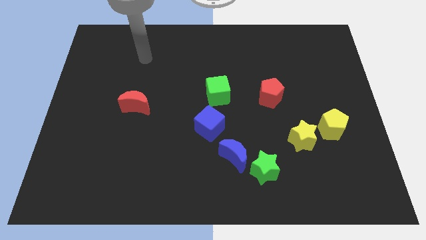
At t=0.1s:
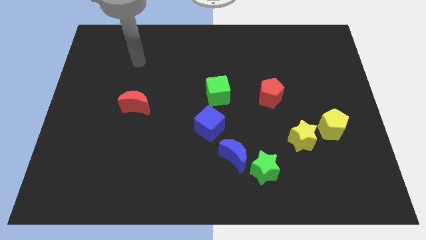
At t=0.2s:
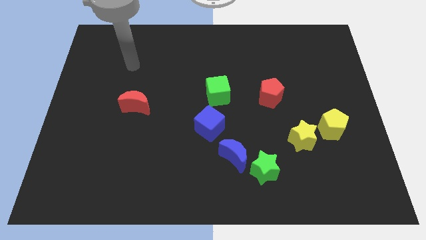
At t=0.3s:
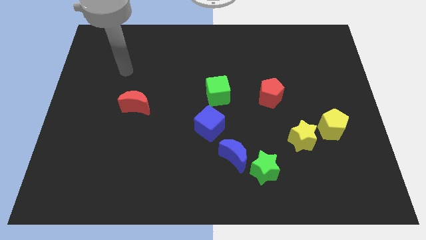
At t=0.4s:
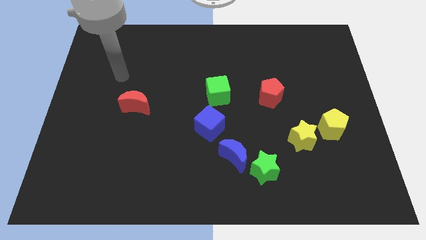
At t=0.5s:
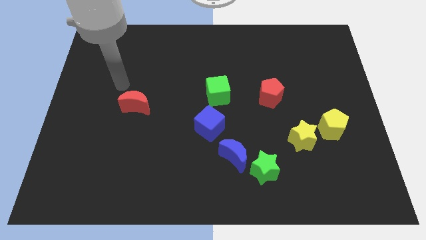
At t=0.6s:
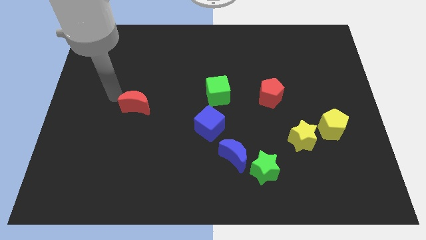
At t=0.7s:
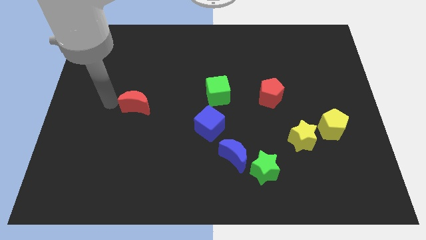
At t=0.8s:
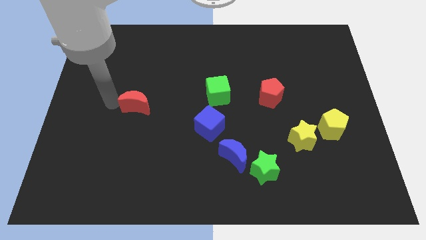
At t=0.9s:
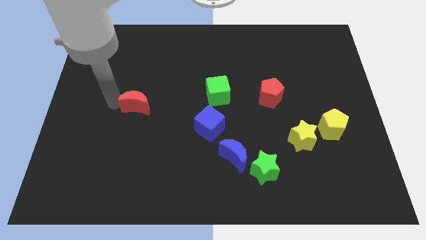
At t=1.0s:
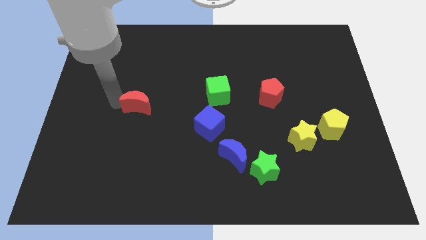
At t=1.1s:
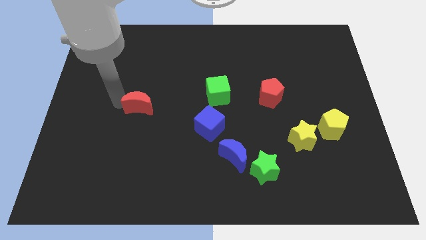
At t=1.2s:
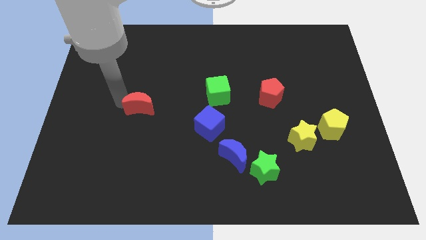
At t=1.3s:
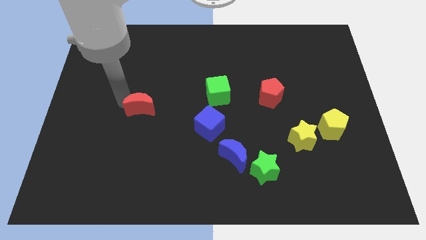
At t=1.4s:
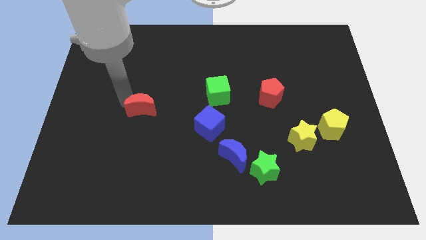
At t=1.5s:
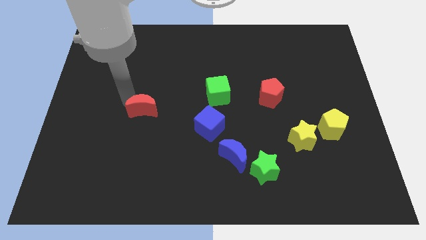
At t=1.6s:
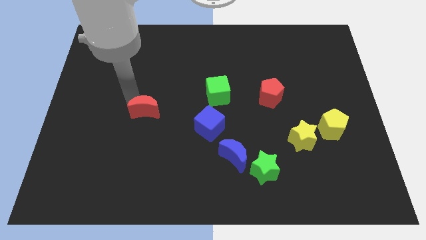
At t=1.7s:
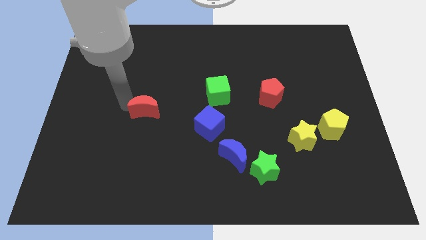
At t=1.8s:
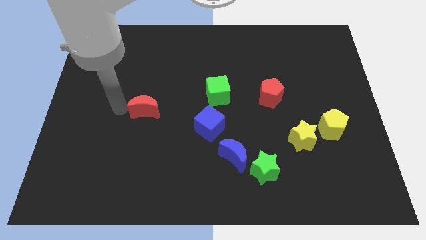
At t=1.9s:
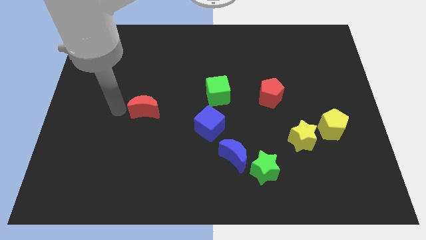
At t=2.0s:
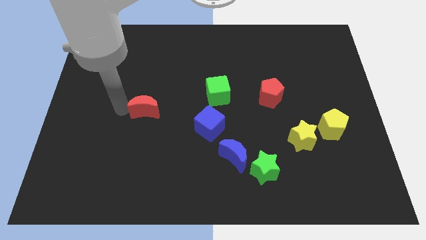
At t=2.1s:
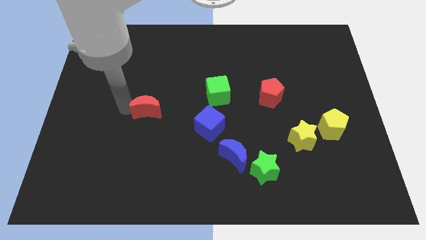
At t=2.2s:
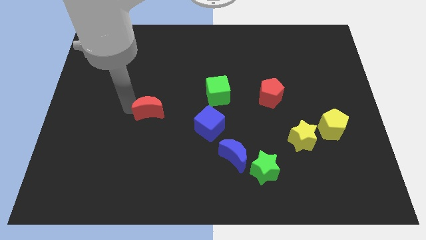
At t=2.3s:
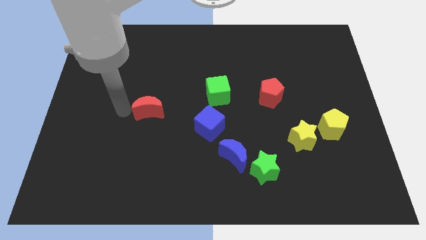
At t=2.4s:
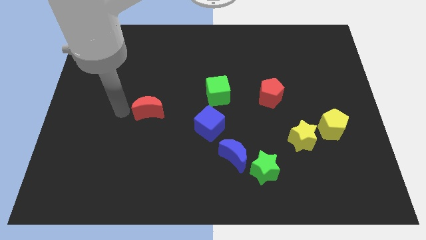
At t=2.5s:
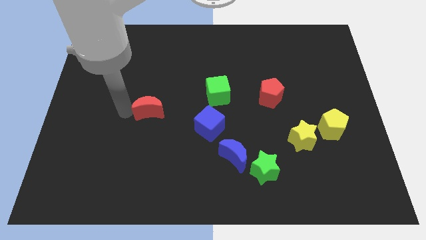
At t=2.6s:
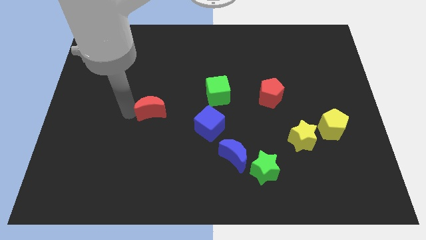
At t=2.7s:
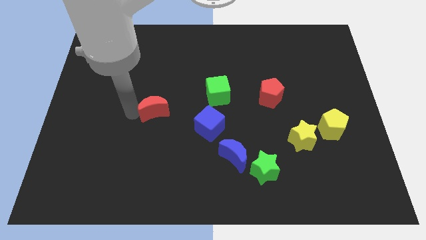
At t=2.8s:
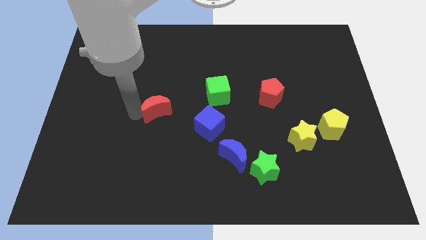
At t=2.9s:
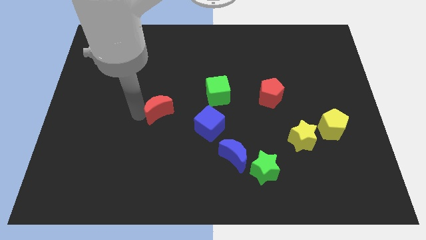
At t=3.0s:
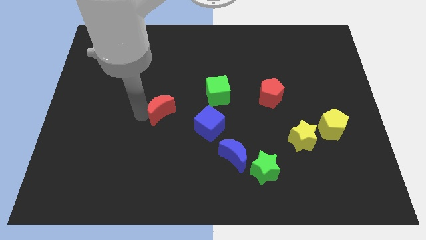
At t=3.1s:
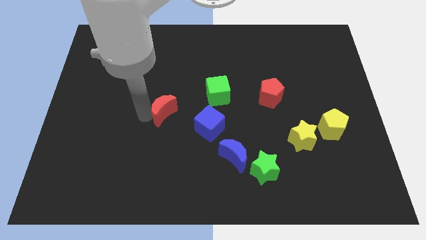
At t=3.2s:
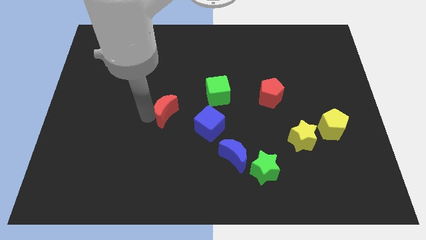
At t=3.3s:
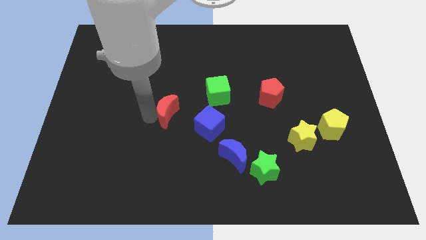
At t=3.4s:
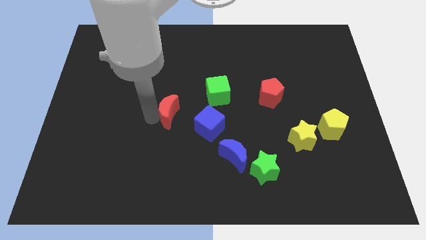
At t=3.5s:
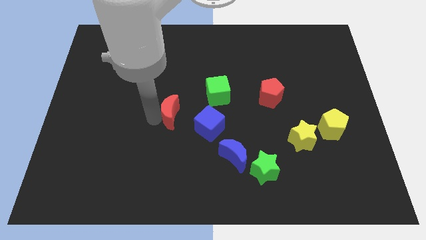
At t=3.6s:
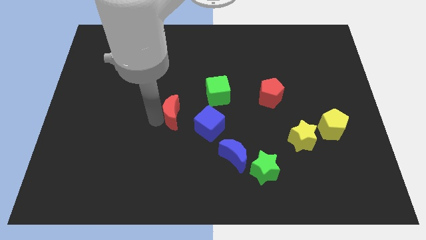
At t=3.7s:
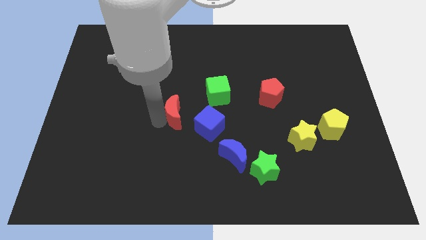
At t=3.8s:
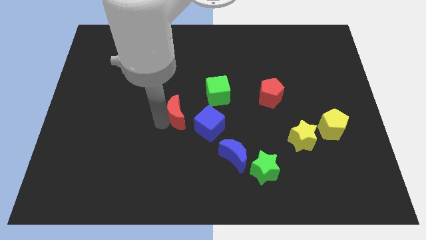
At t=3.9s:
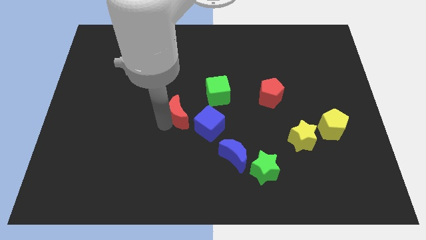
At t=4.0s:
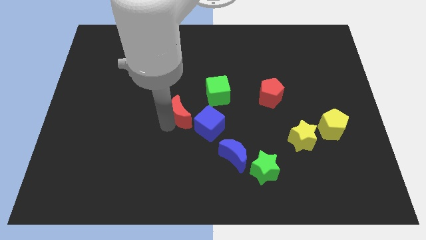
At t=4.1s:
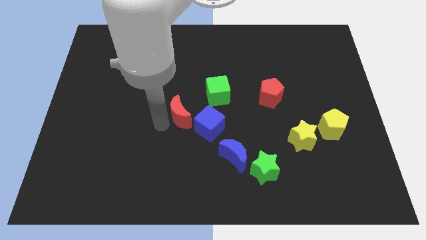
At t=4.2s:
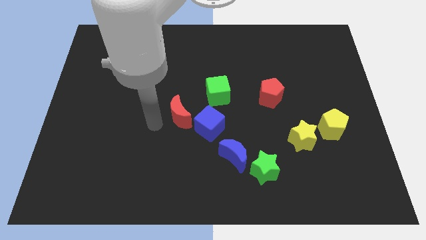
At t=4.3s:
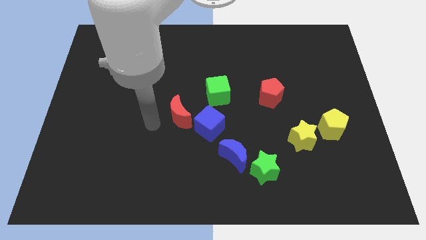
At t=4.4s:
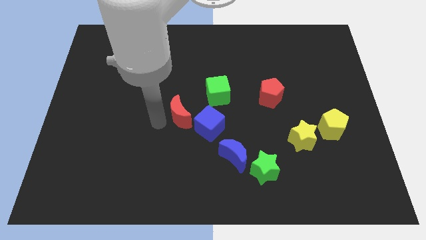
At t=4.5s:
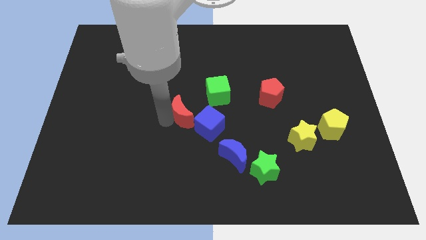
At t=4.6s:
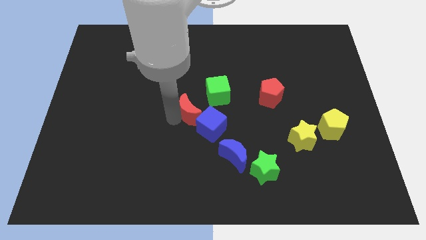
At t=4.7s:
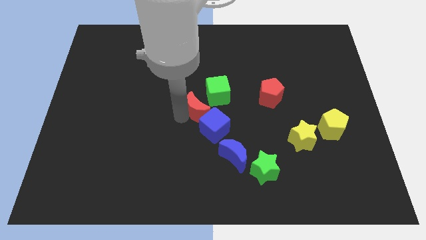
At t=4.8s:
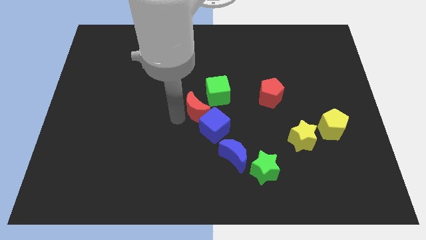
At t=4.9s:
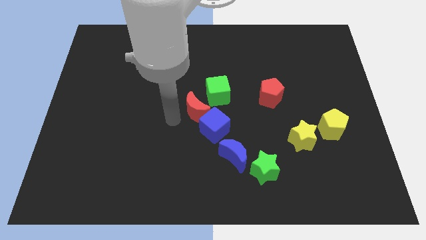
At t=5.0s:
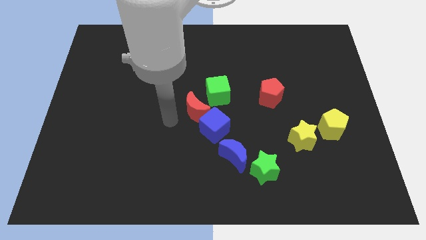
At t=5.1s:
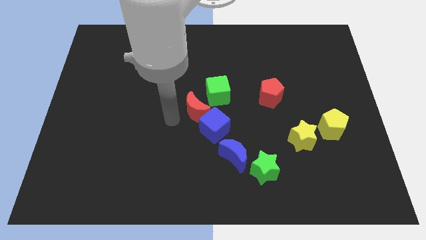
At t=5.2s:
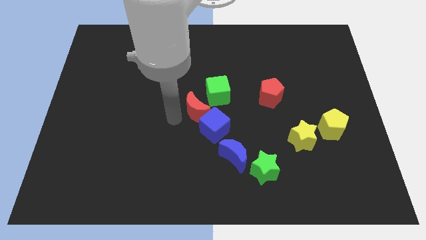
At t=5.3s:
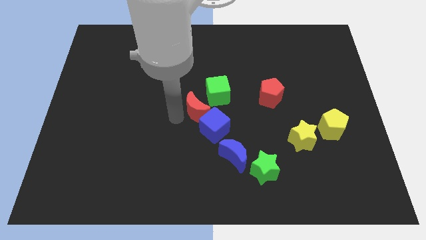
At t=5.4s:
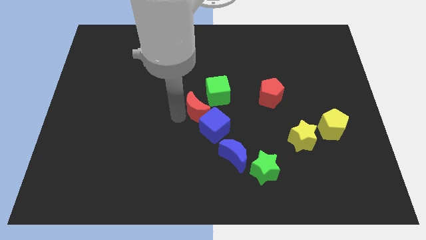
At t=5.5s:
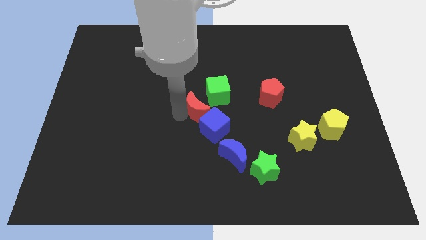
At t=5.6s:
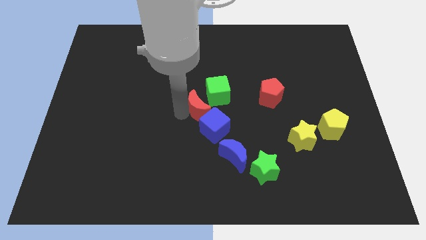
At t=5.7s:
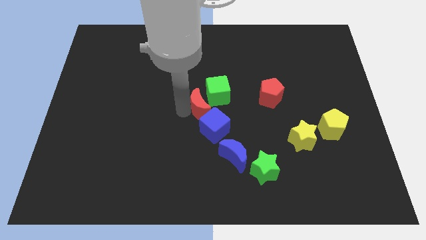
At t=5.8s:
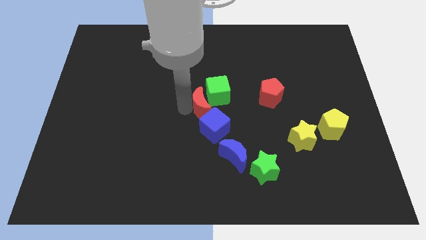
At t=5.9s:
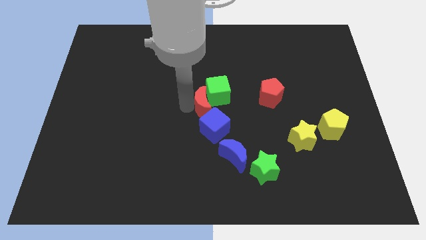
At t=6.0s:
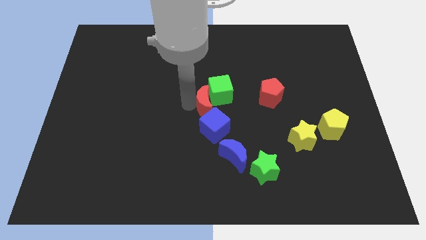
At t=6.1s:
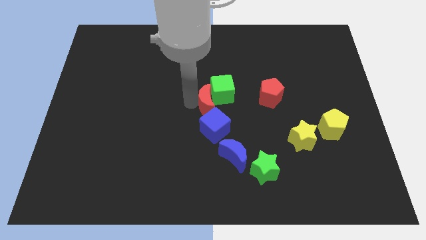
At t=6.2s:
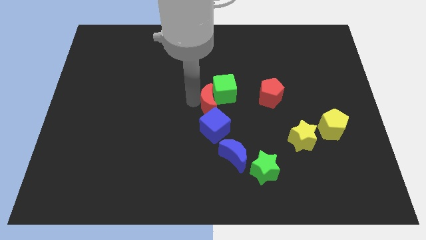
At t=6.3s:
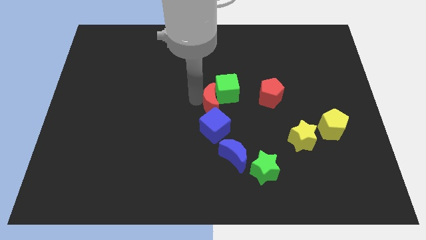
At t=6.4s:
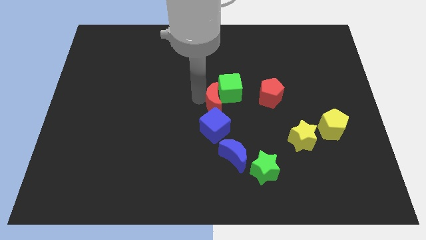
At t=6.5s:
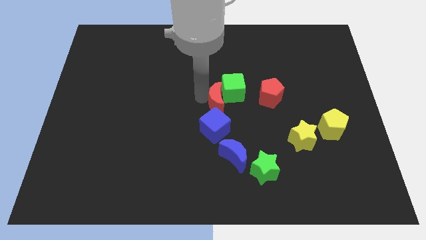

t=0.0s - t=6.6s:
push the red moon to the top right side of the blue cube
